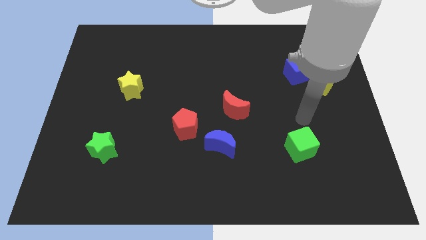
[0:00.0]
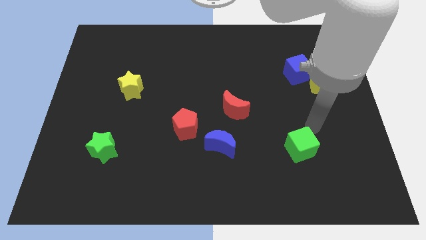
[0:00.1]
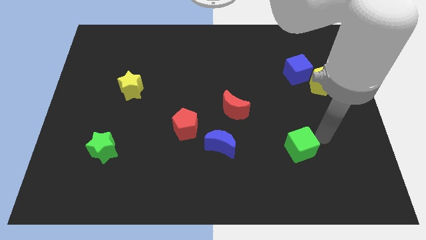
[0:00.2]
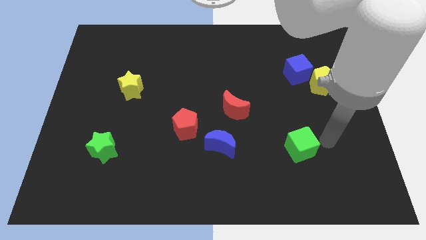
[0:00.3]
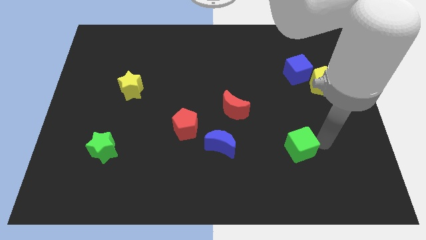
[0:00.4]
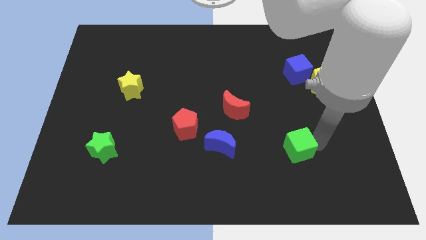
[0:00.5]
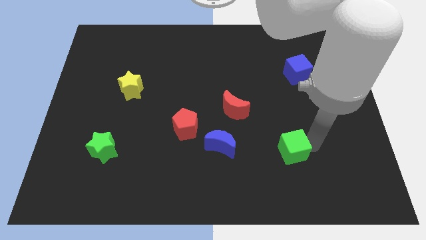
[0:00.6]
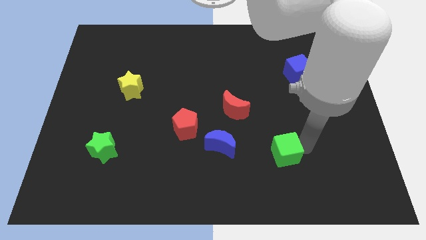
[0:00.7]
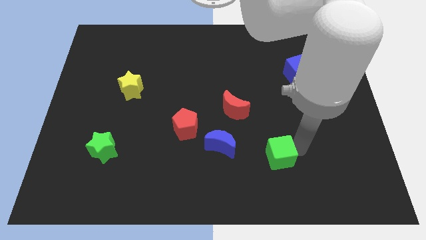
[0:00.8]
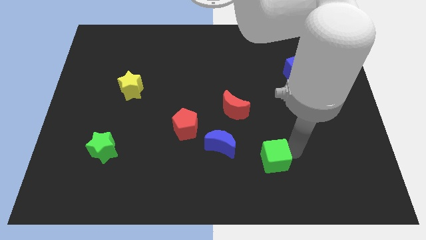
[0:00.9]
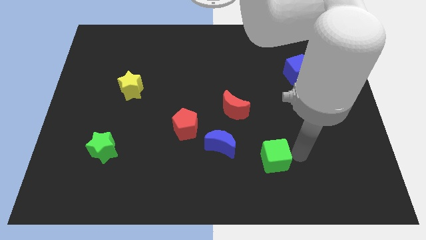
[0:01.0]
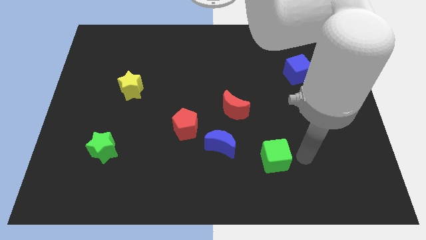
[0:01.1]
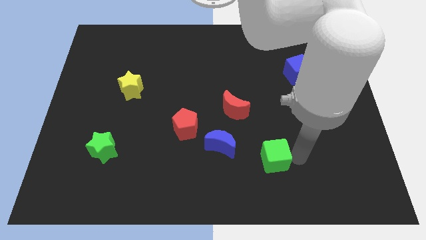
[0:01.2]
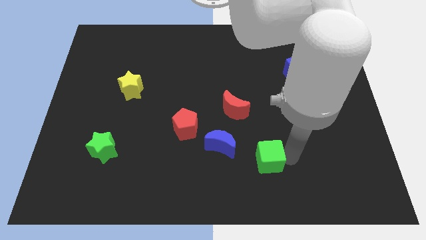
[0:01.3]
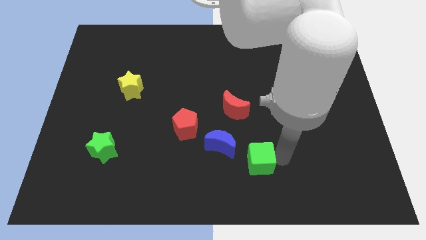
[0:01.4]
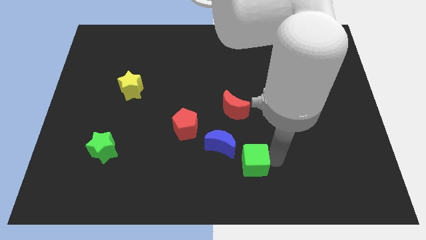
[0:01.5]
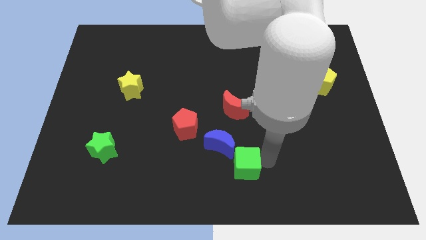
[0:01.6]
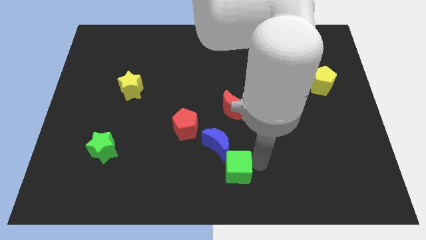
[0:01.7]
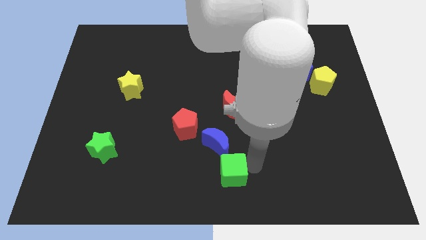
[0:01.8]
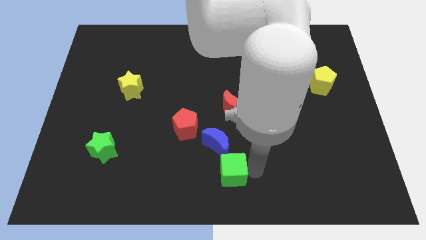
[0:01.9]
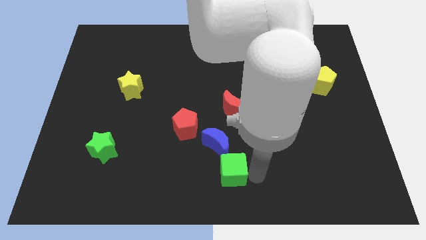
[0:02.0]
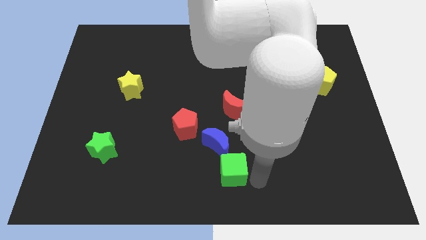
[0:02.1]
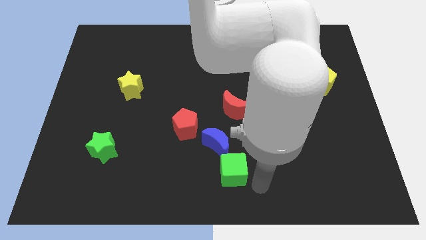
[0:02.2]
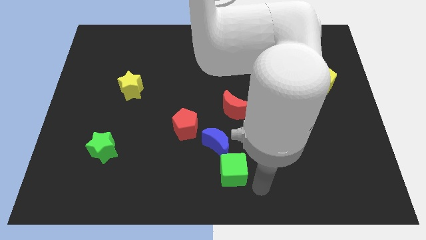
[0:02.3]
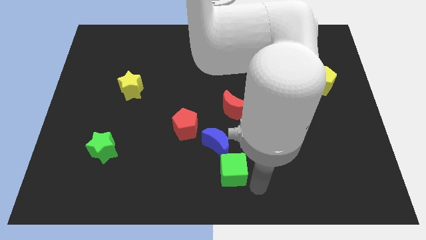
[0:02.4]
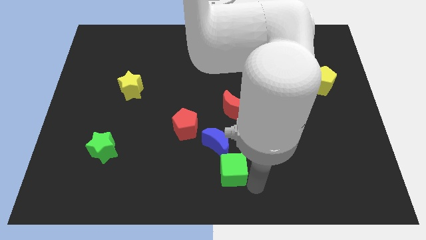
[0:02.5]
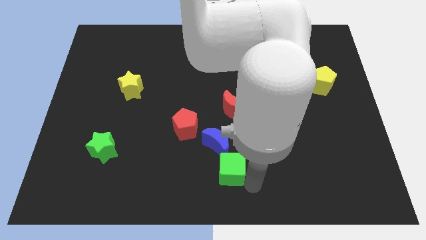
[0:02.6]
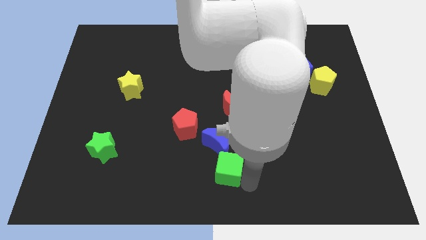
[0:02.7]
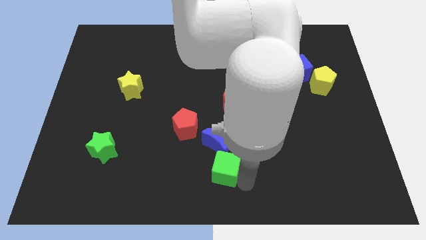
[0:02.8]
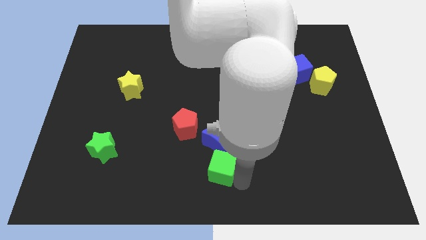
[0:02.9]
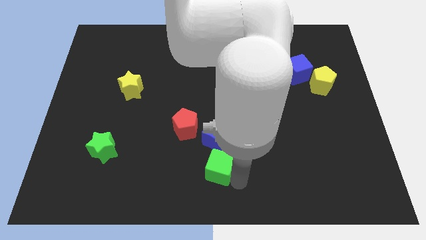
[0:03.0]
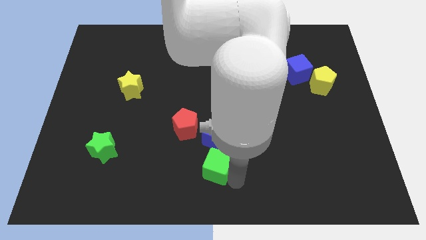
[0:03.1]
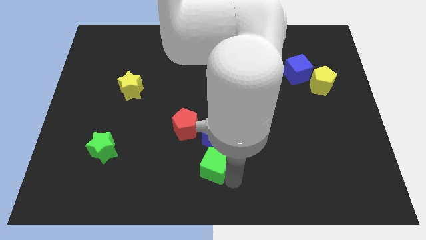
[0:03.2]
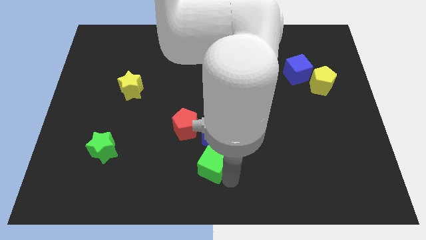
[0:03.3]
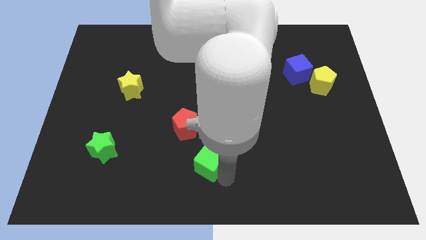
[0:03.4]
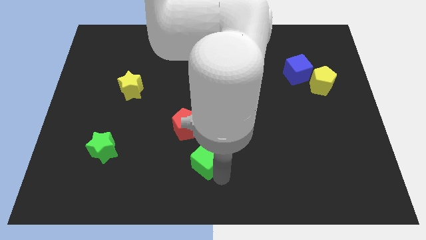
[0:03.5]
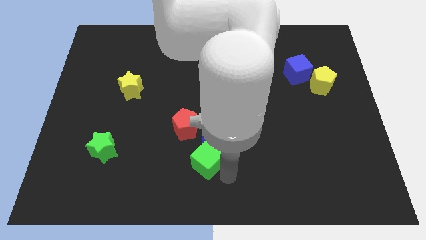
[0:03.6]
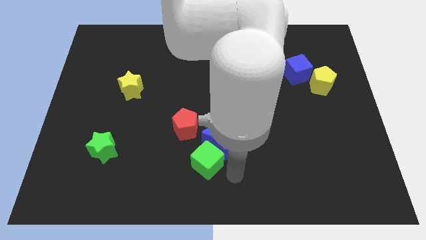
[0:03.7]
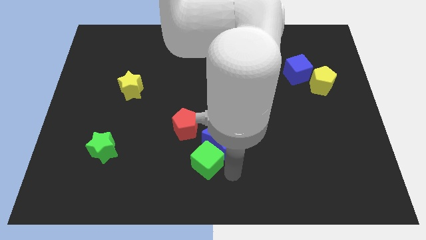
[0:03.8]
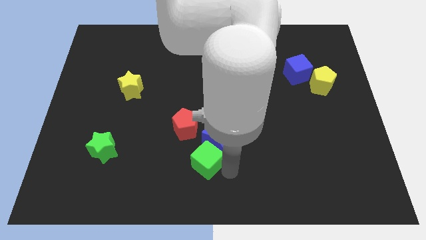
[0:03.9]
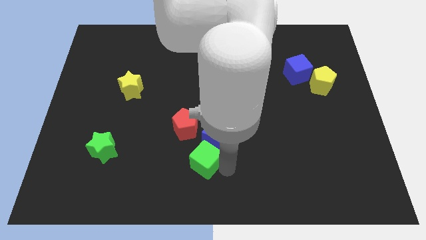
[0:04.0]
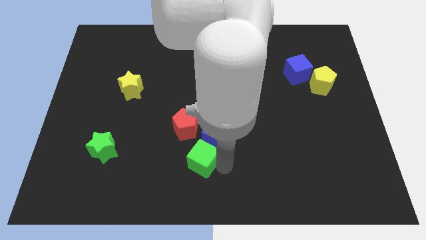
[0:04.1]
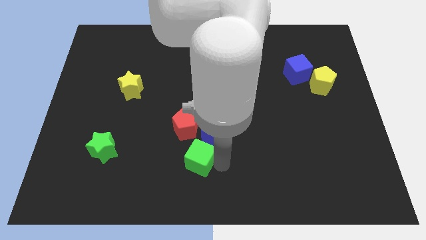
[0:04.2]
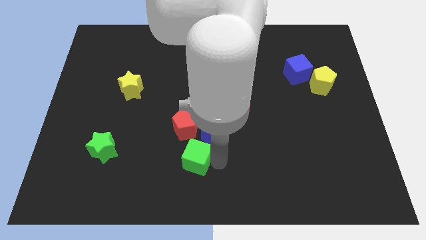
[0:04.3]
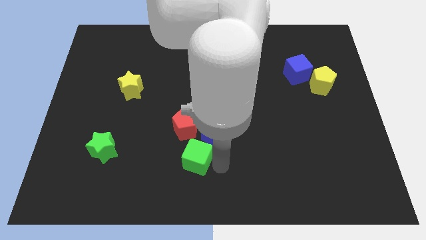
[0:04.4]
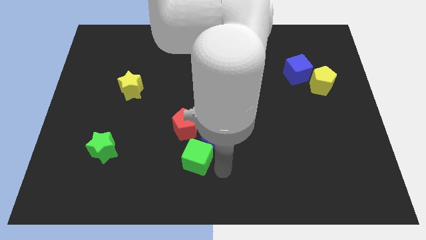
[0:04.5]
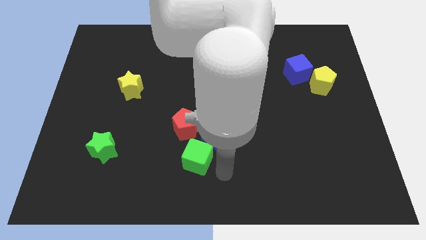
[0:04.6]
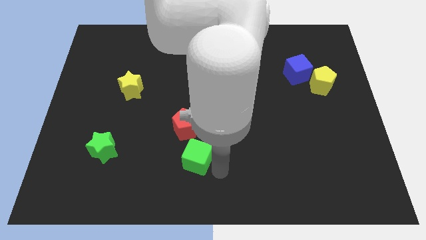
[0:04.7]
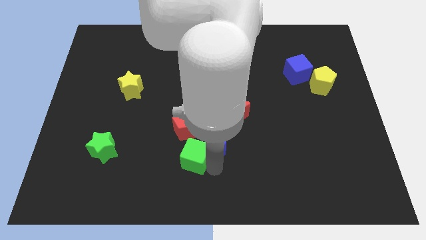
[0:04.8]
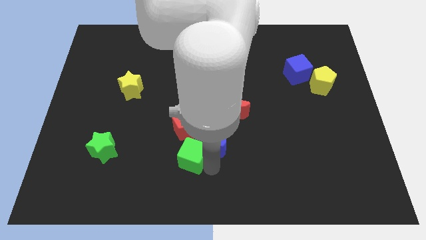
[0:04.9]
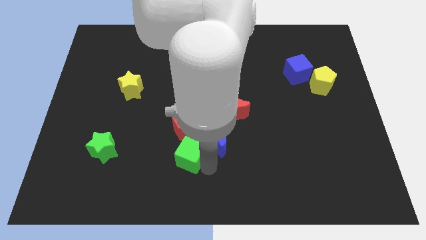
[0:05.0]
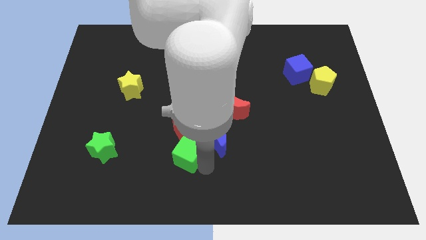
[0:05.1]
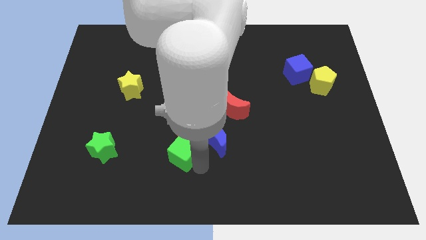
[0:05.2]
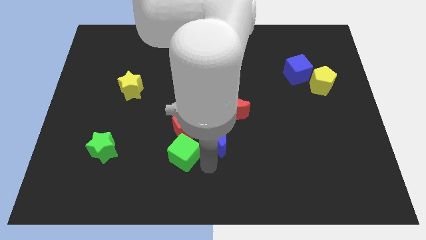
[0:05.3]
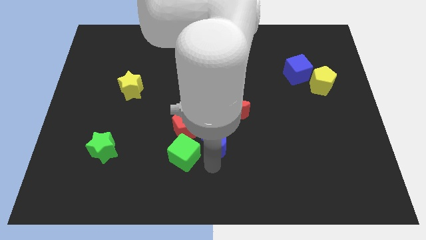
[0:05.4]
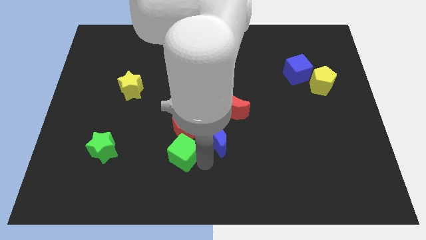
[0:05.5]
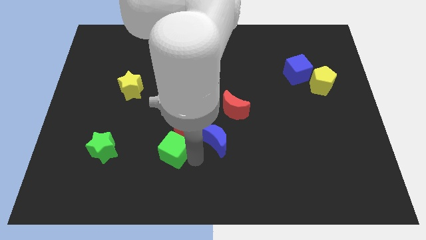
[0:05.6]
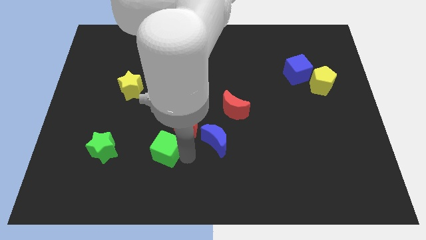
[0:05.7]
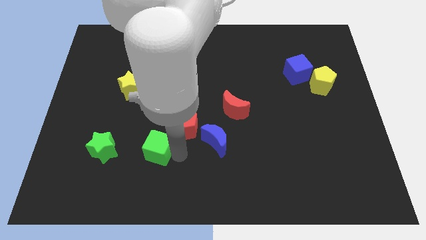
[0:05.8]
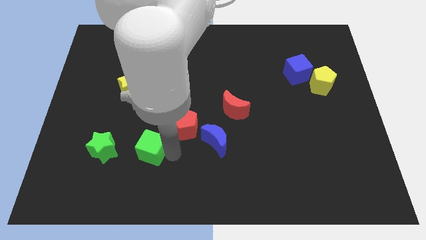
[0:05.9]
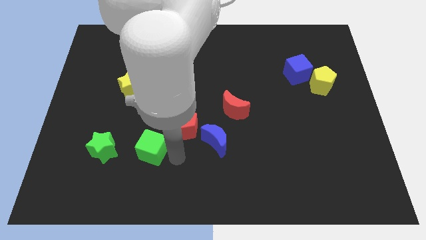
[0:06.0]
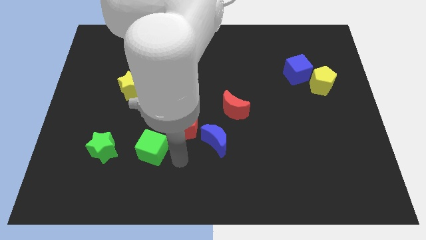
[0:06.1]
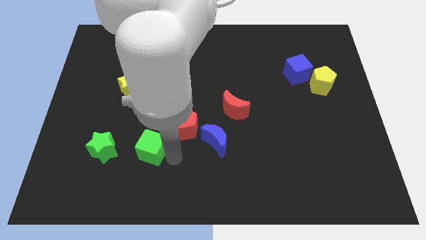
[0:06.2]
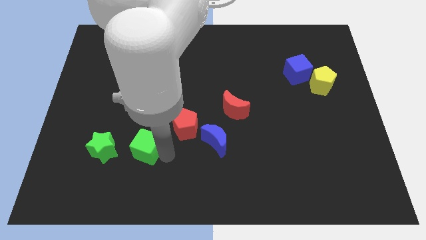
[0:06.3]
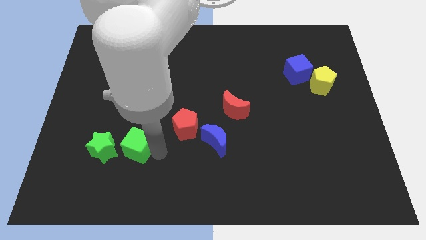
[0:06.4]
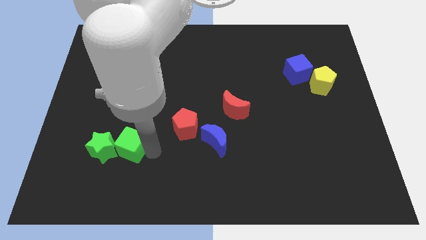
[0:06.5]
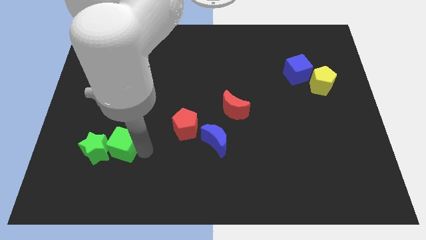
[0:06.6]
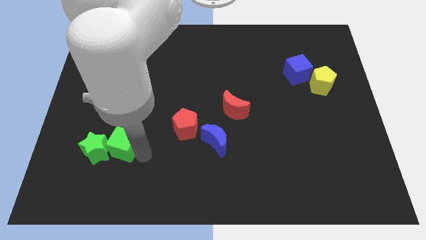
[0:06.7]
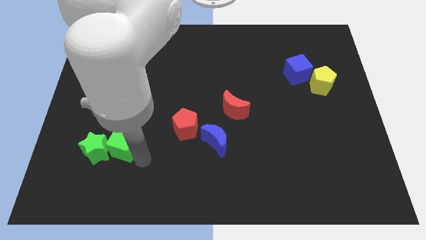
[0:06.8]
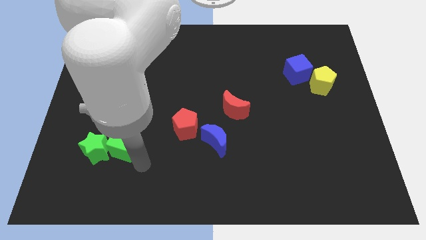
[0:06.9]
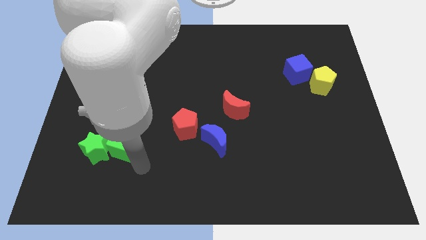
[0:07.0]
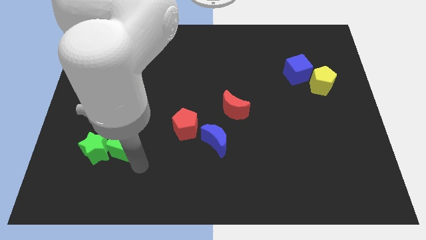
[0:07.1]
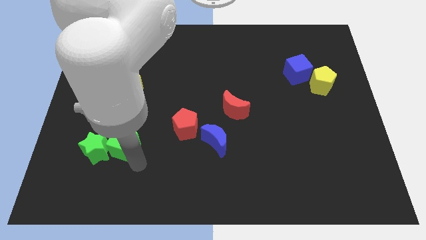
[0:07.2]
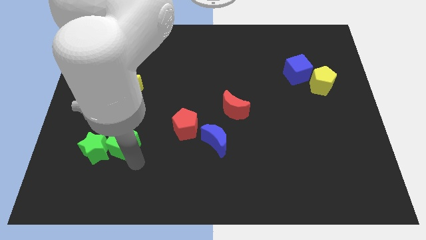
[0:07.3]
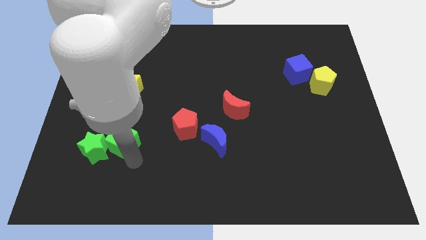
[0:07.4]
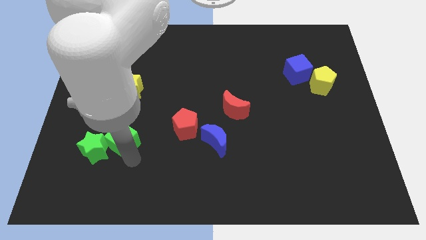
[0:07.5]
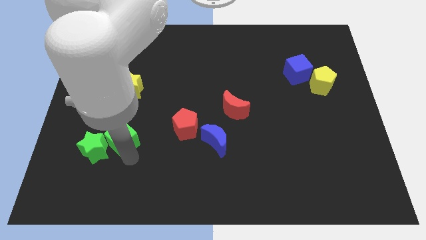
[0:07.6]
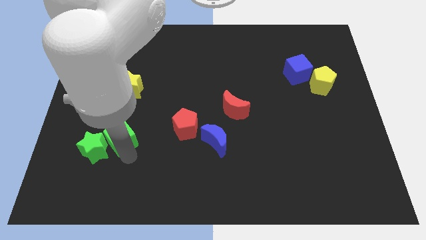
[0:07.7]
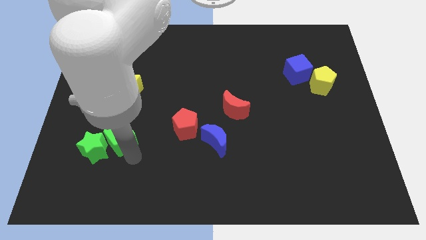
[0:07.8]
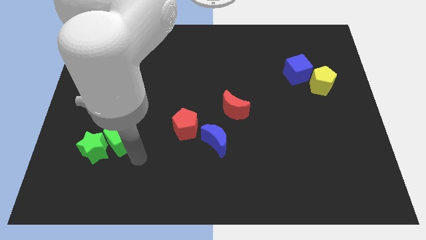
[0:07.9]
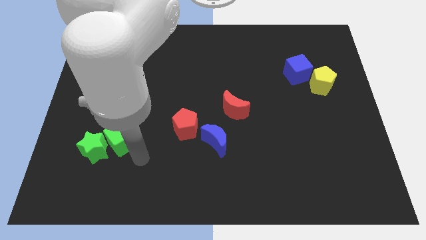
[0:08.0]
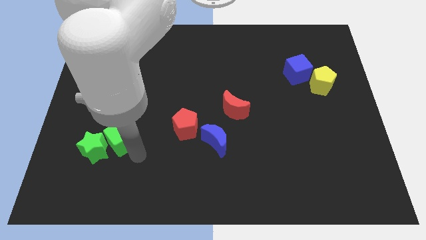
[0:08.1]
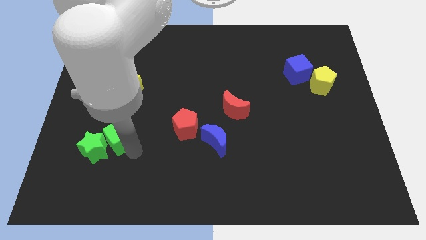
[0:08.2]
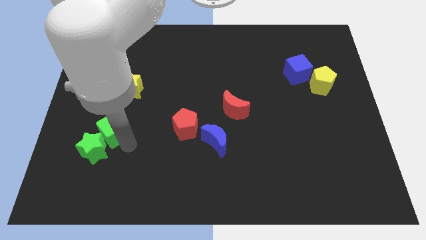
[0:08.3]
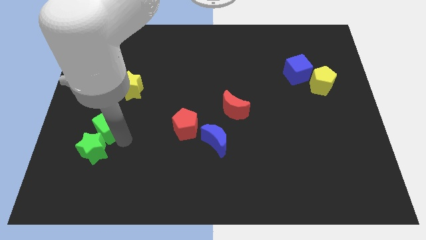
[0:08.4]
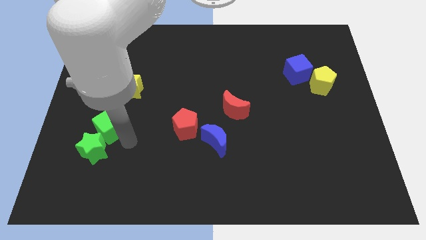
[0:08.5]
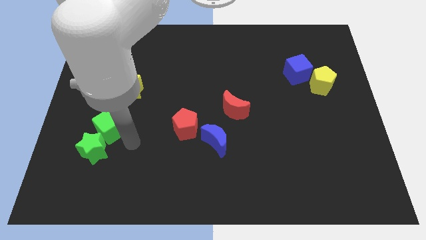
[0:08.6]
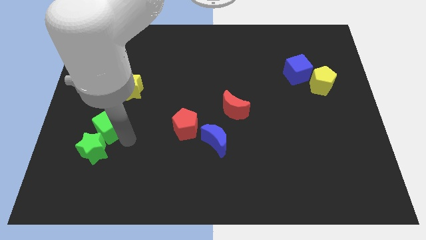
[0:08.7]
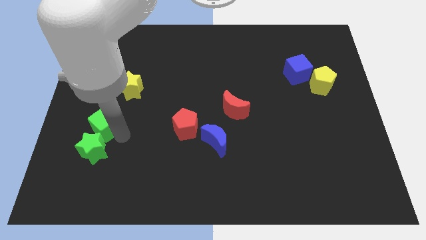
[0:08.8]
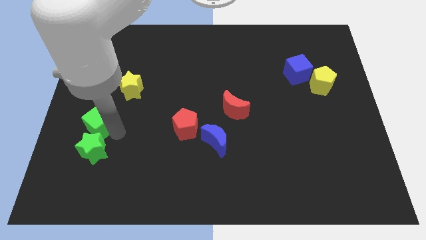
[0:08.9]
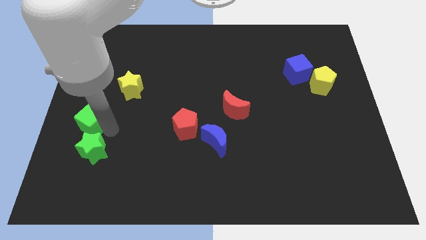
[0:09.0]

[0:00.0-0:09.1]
put the green cube to the center left
